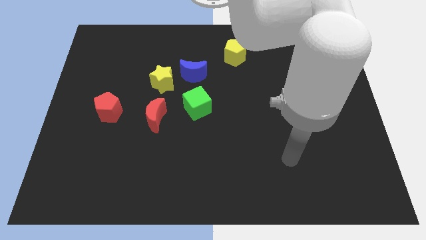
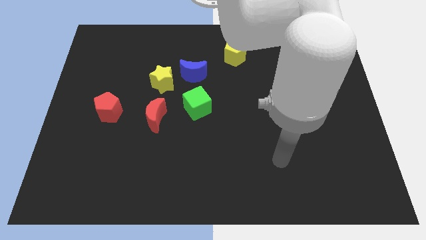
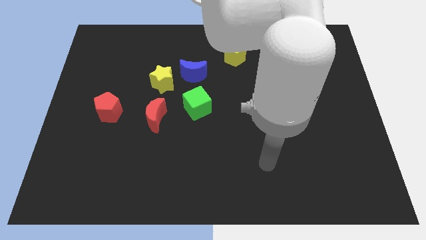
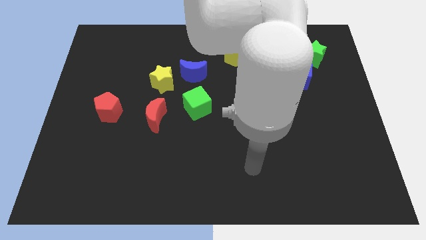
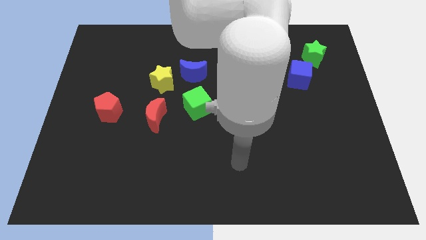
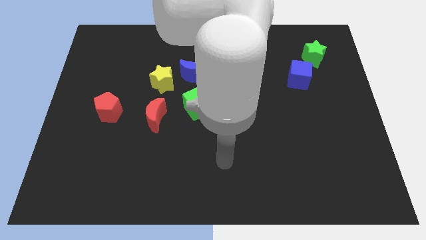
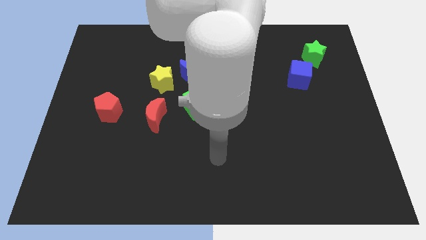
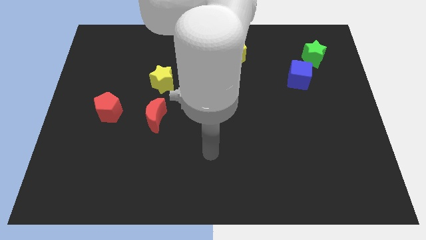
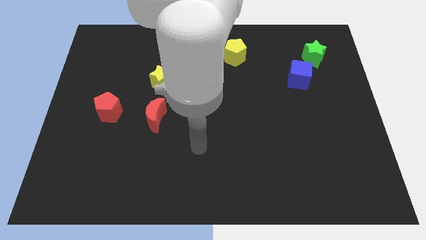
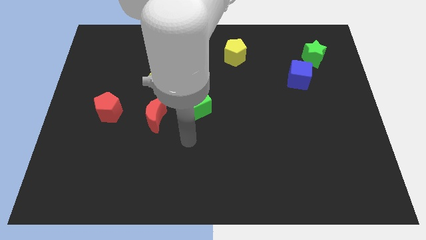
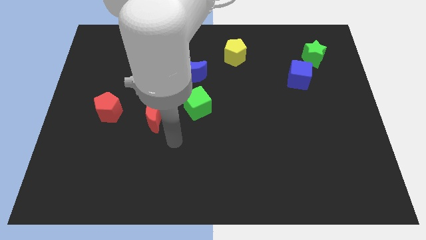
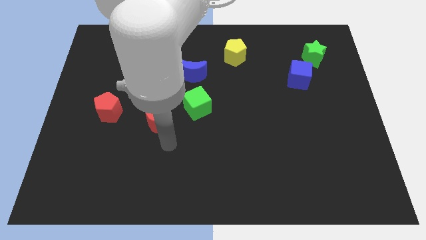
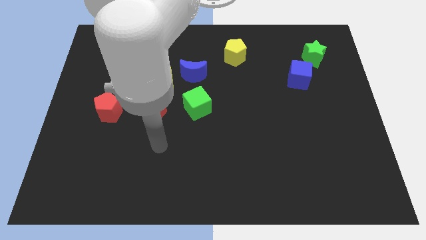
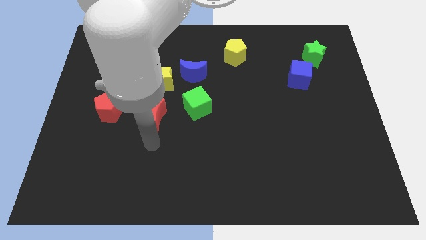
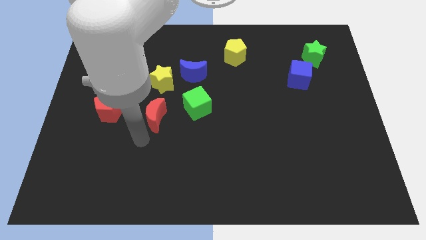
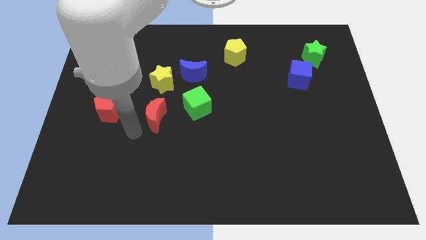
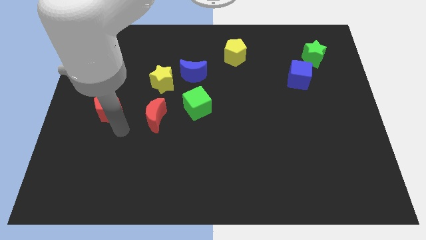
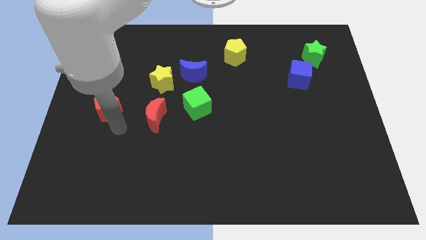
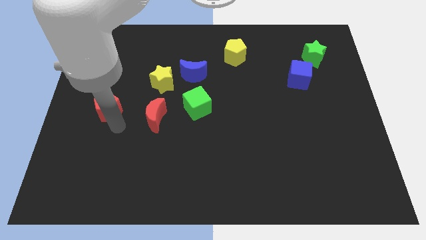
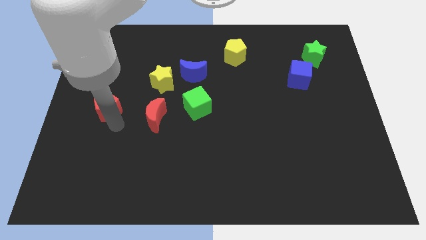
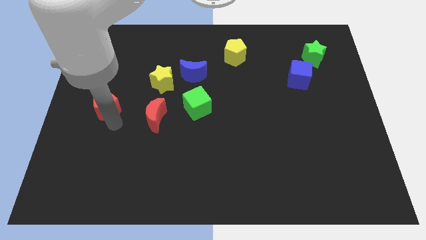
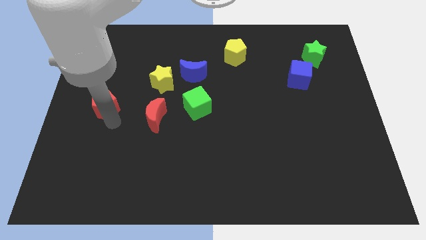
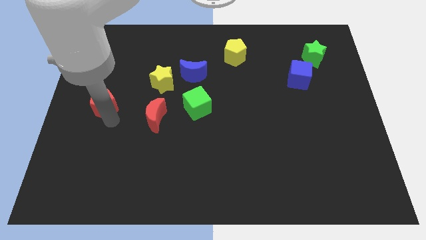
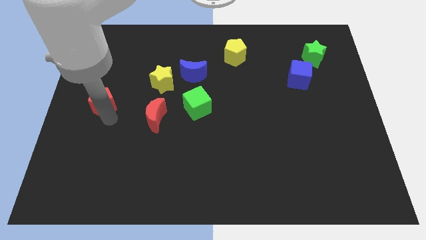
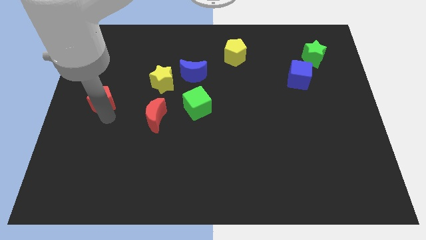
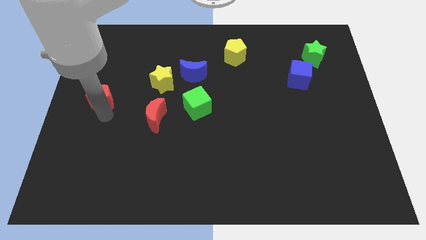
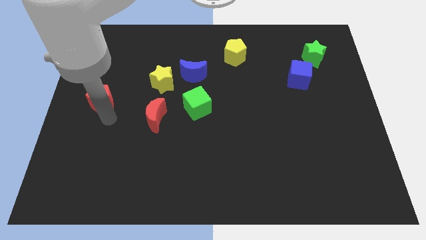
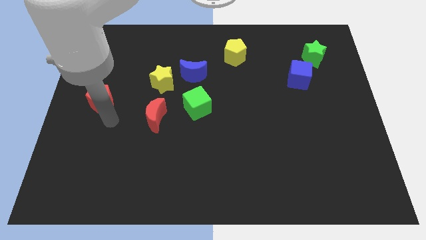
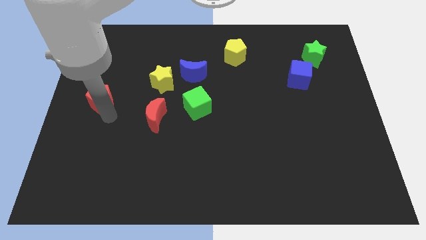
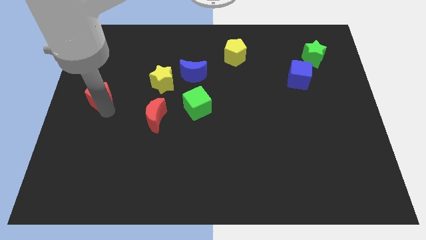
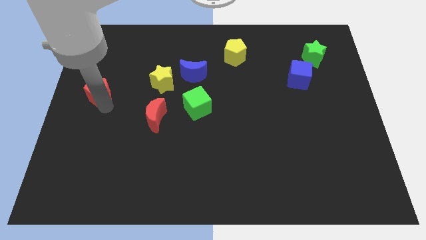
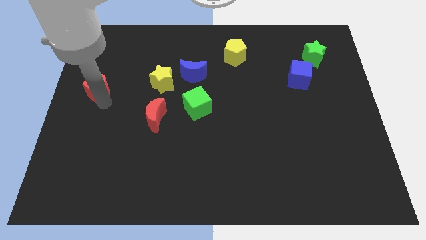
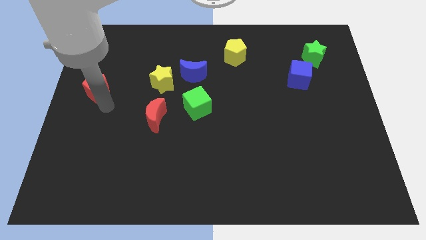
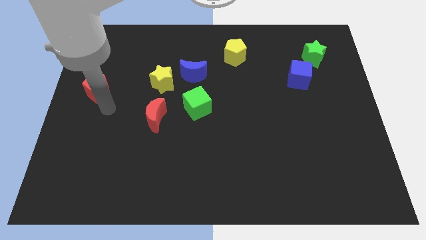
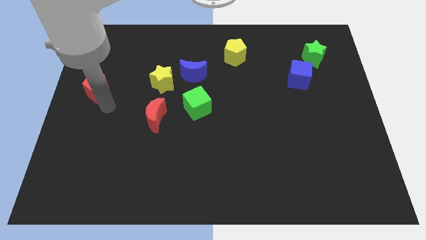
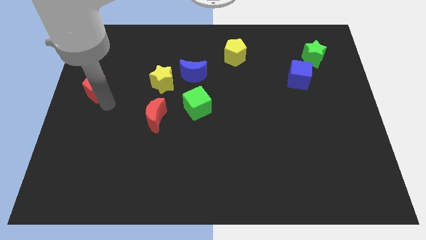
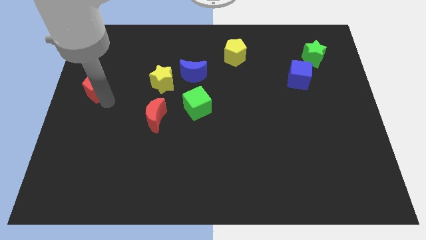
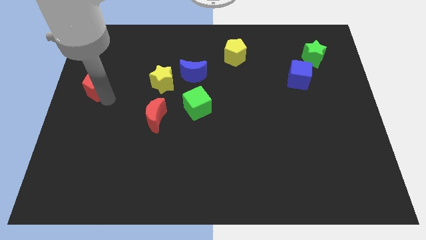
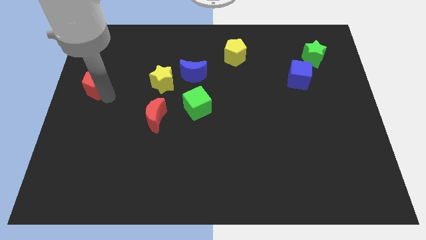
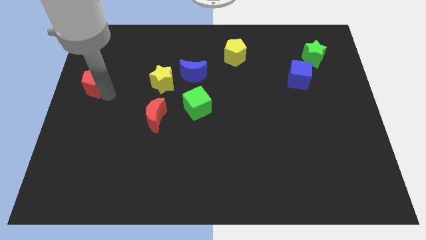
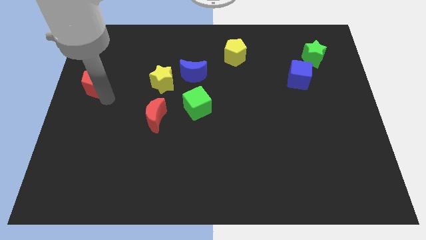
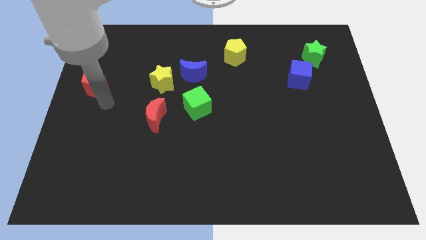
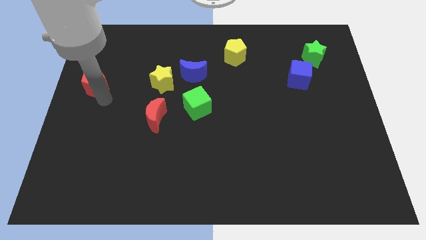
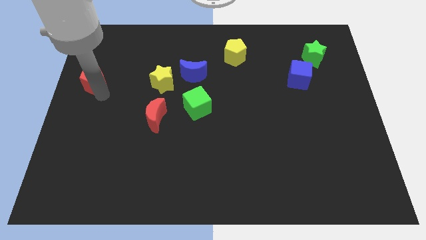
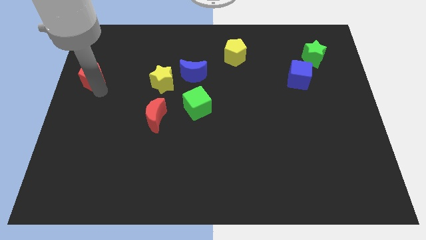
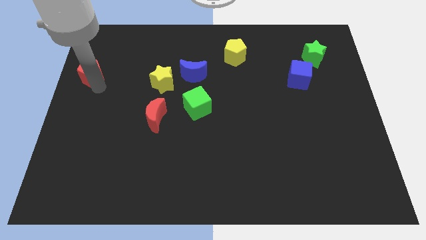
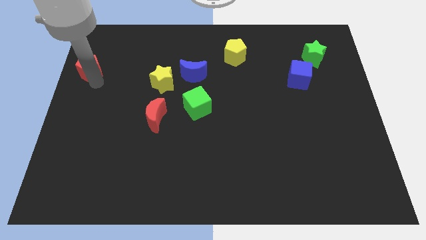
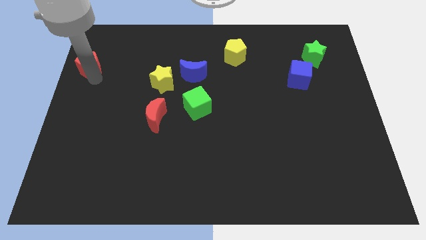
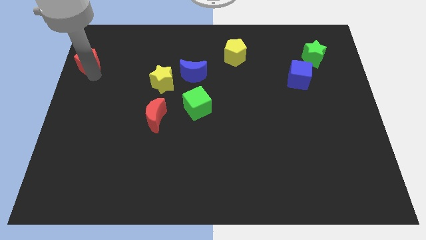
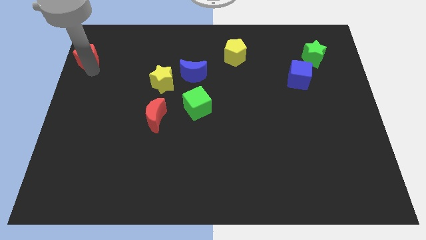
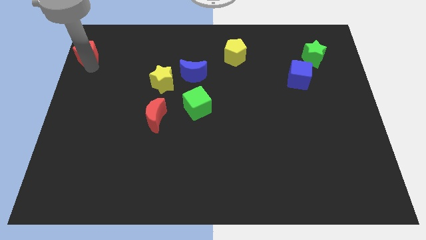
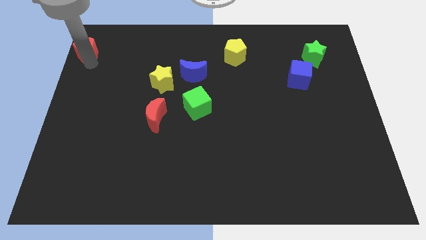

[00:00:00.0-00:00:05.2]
push the red pentagon to the top left

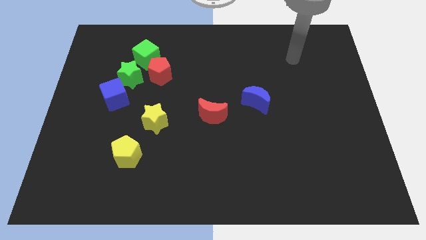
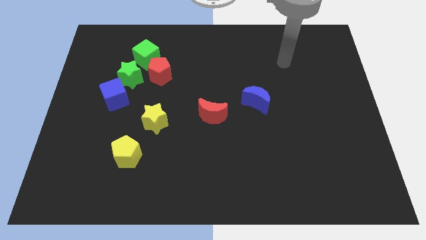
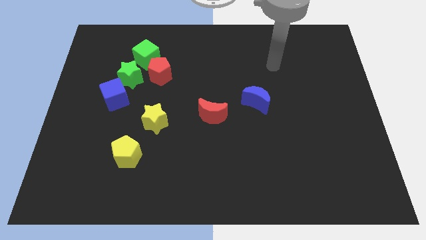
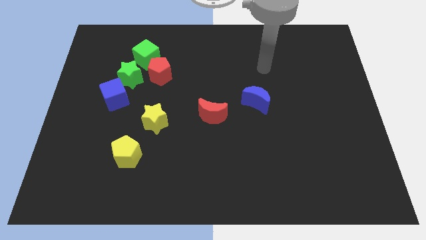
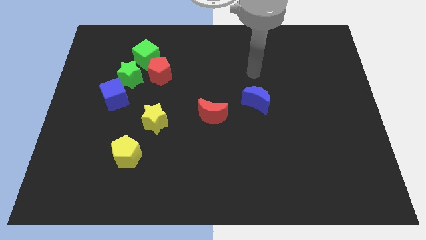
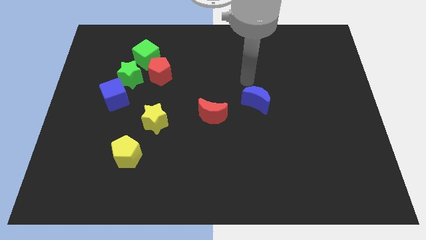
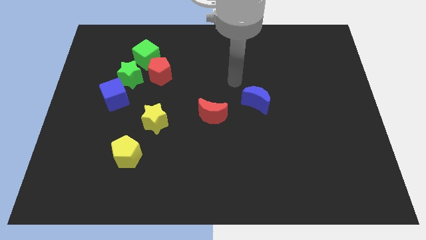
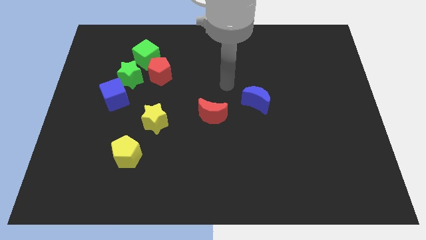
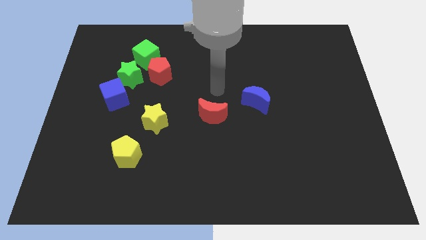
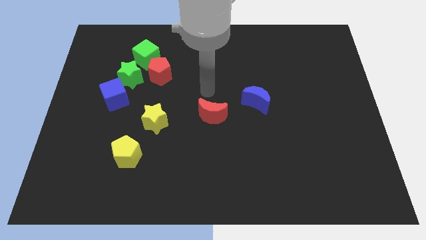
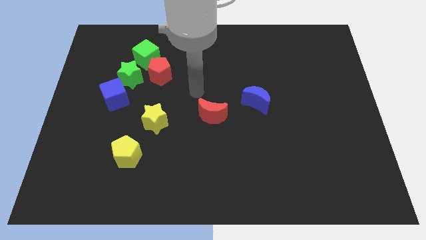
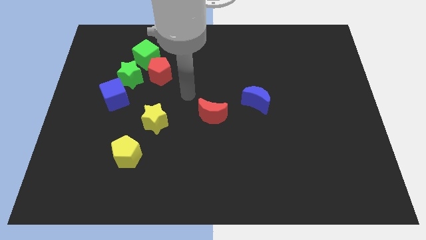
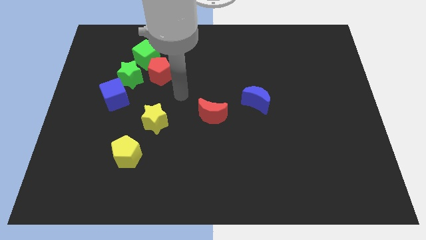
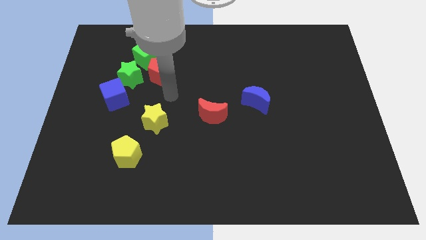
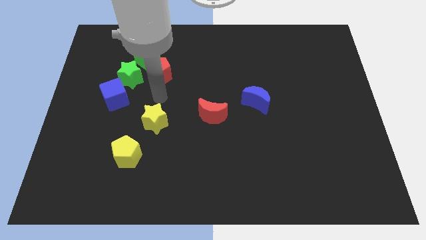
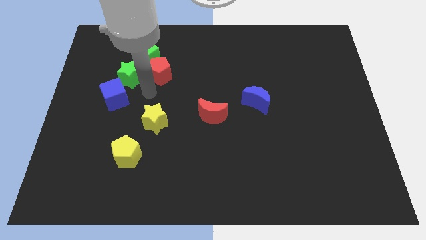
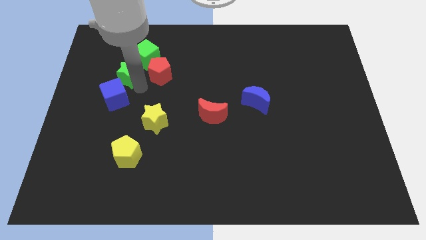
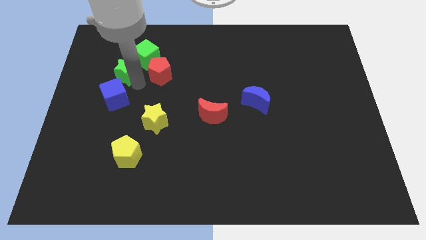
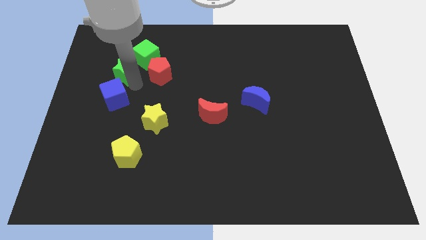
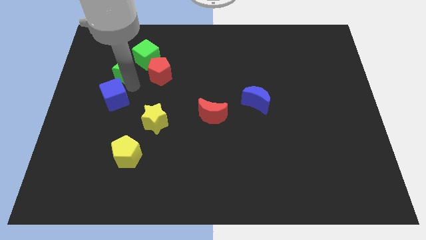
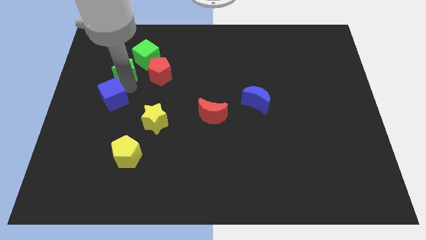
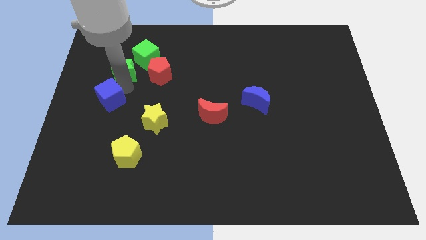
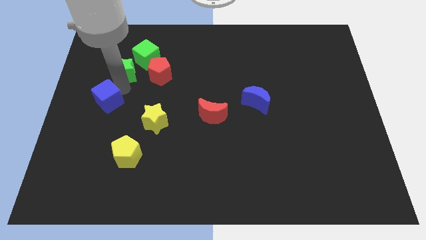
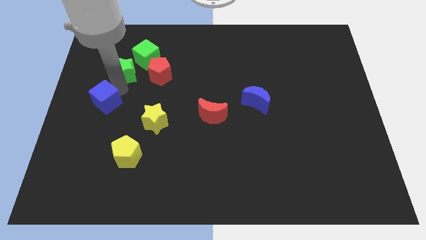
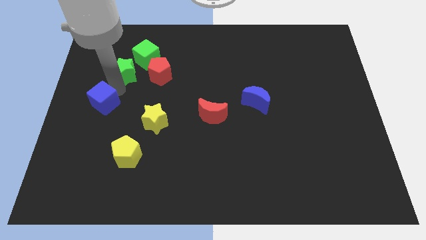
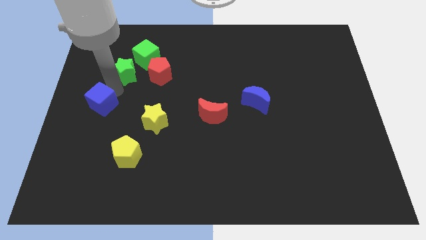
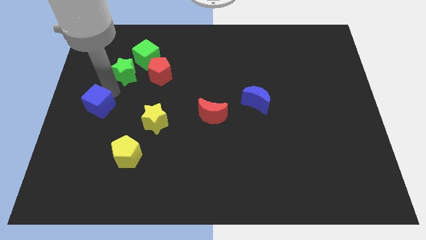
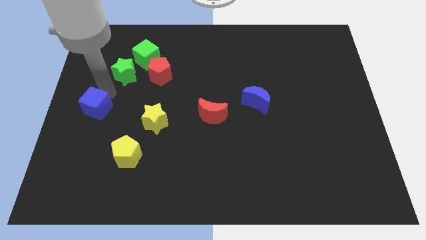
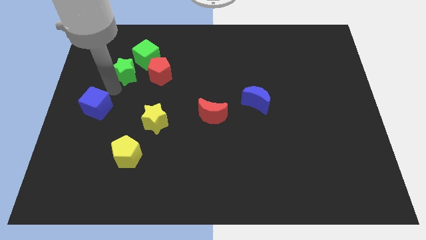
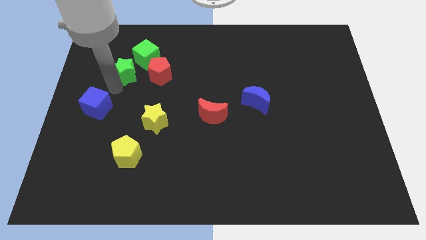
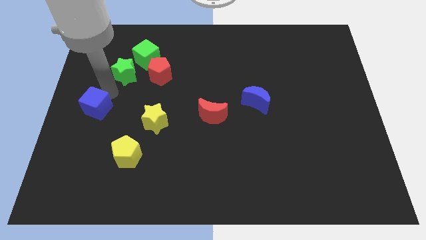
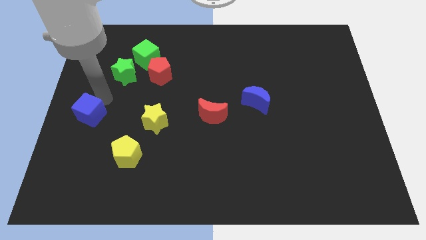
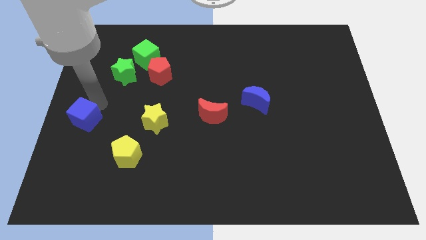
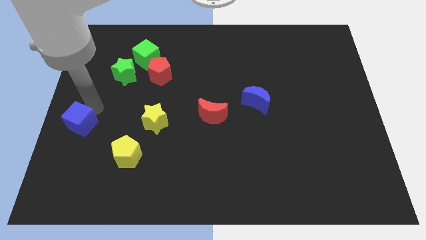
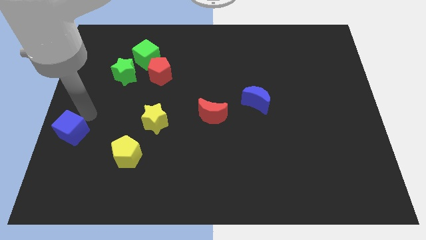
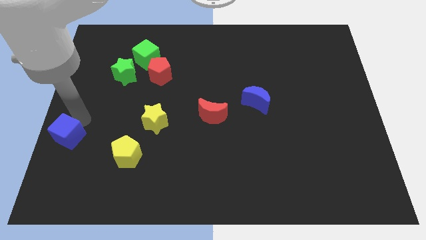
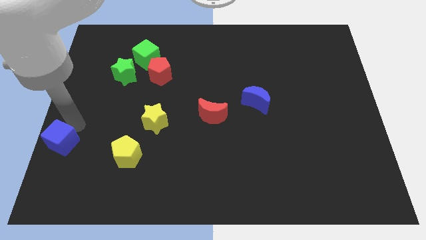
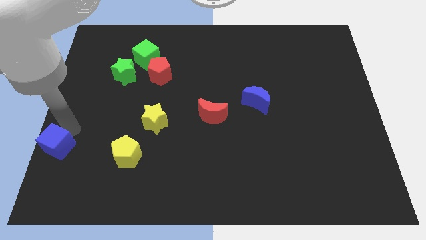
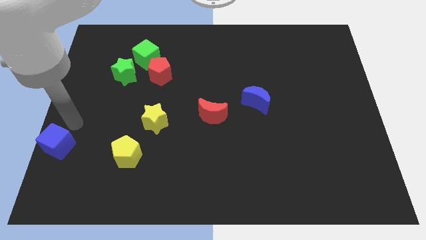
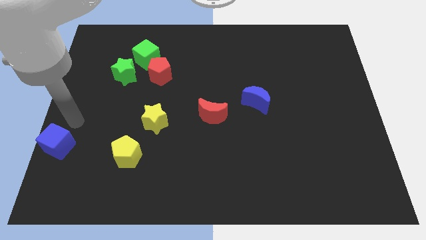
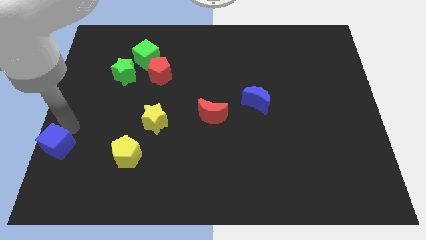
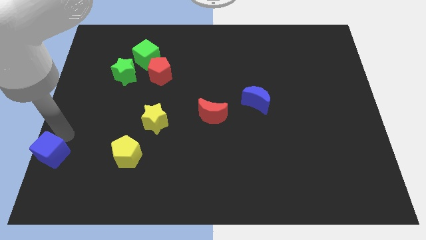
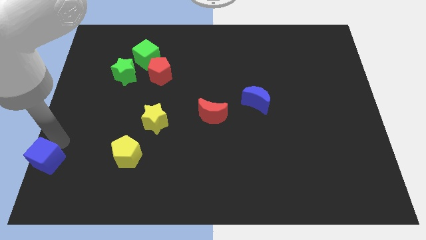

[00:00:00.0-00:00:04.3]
move the blue cube to the bottom left corner
